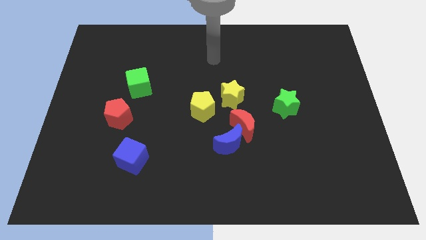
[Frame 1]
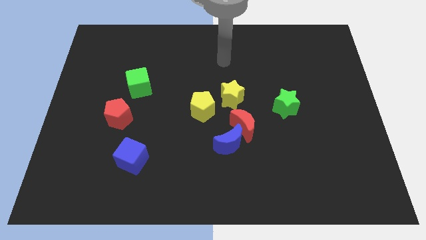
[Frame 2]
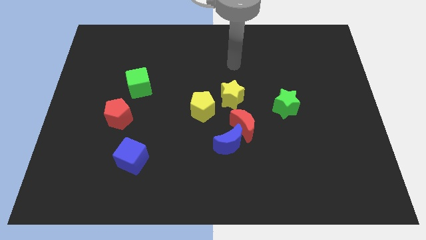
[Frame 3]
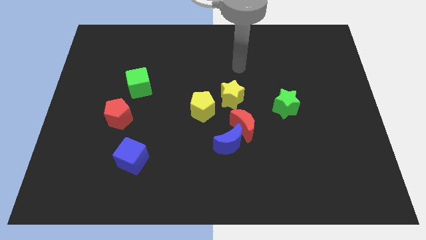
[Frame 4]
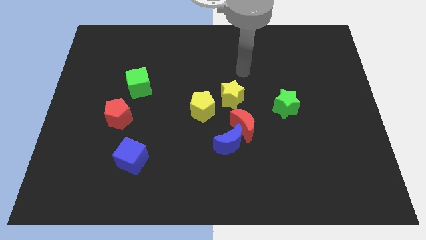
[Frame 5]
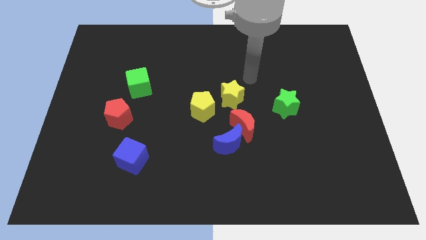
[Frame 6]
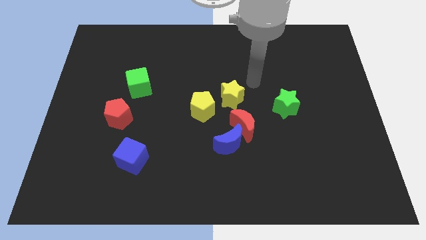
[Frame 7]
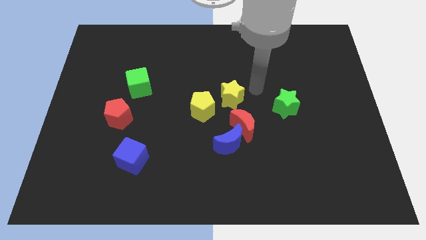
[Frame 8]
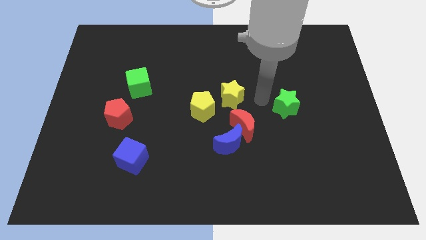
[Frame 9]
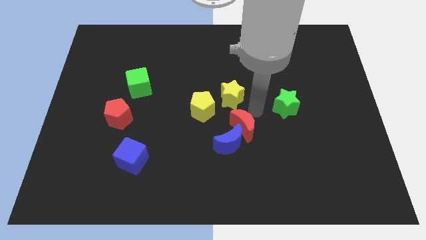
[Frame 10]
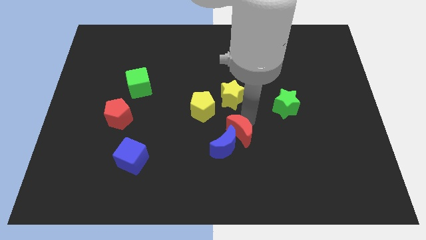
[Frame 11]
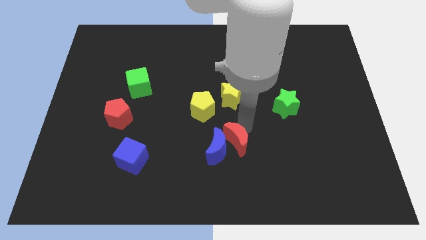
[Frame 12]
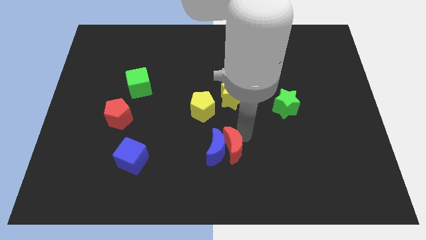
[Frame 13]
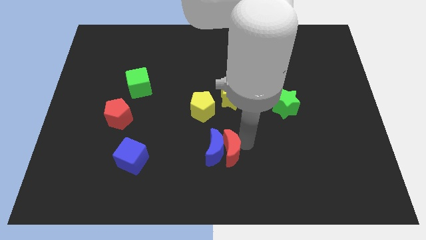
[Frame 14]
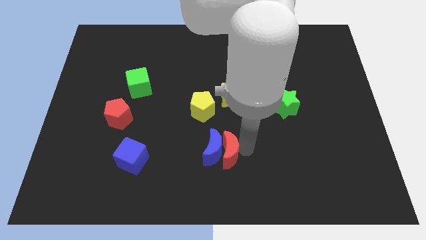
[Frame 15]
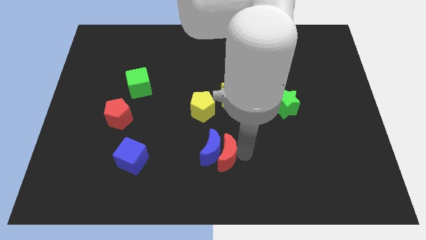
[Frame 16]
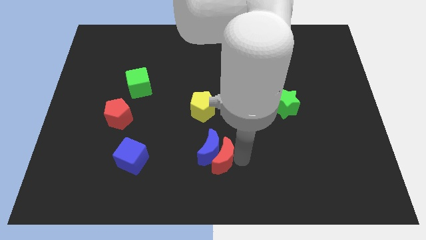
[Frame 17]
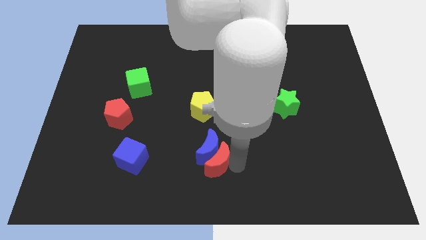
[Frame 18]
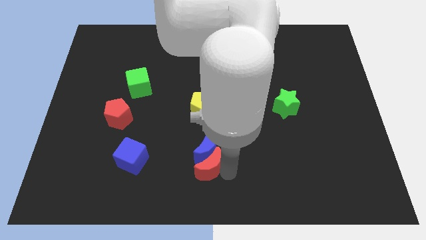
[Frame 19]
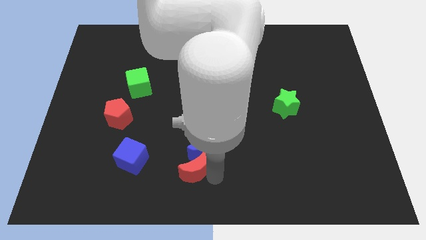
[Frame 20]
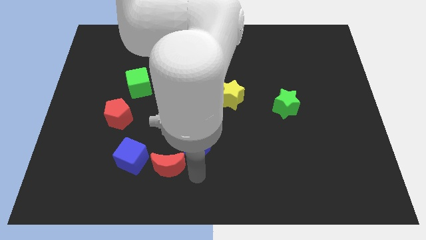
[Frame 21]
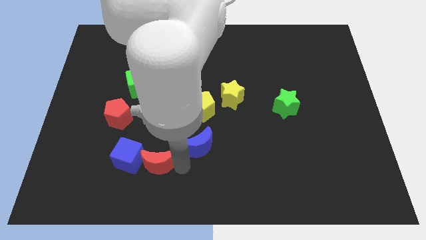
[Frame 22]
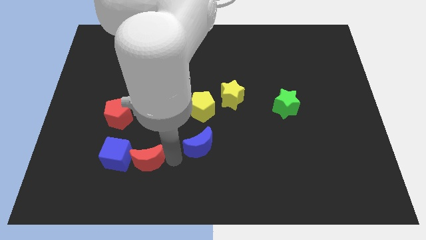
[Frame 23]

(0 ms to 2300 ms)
separate the blue moon from the red moon

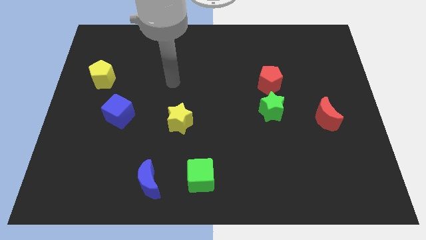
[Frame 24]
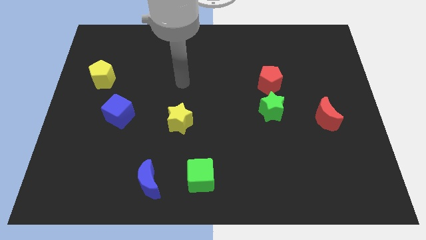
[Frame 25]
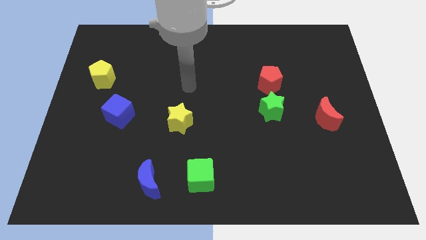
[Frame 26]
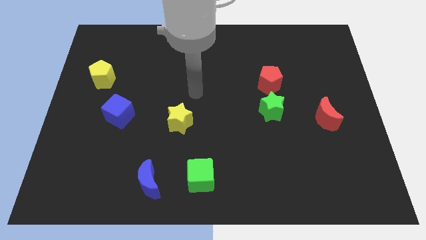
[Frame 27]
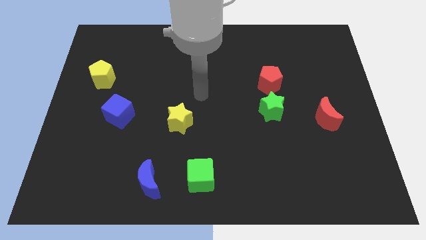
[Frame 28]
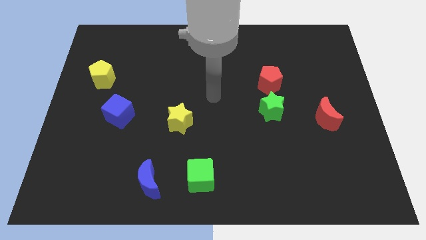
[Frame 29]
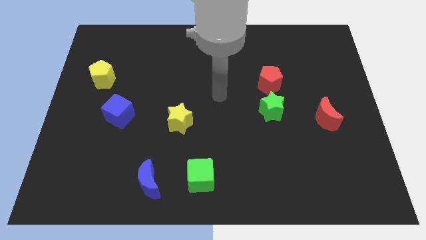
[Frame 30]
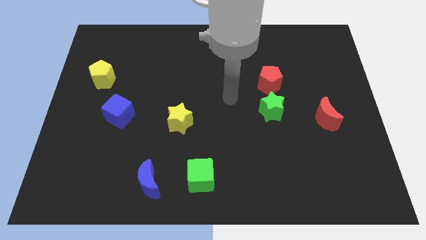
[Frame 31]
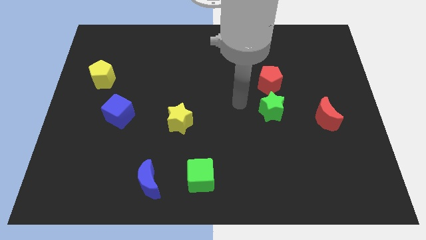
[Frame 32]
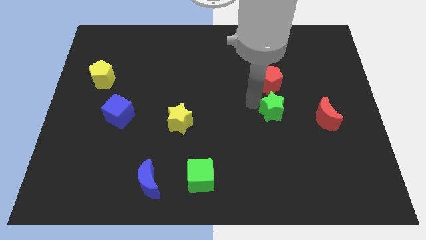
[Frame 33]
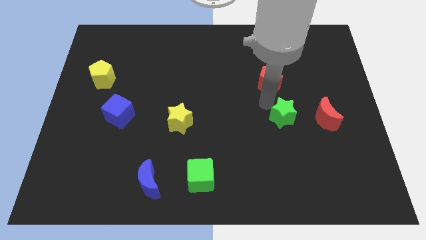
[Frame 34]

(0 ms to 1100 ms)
separate the red pentagon from the green star

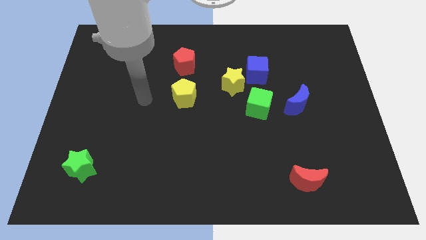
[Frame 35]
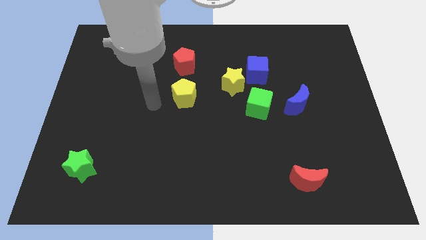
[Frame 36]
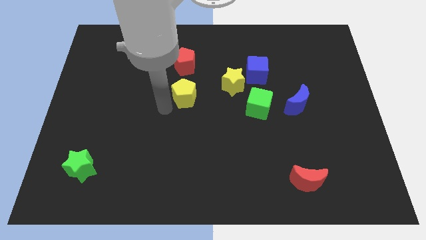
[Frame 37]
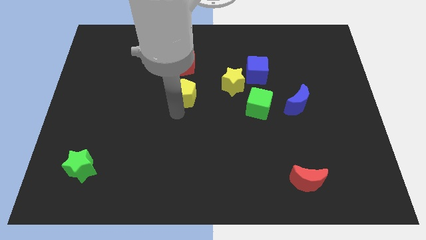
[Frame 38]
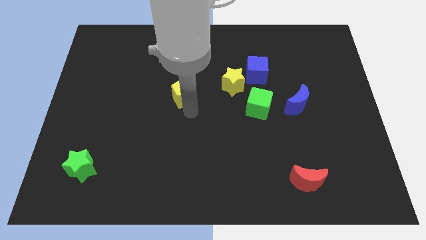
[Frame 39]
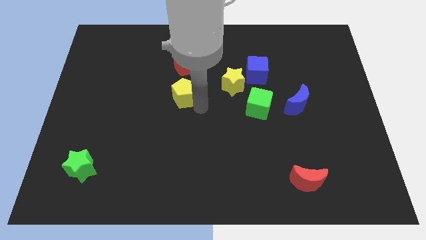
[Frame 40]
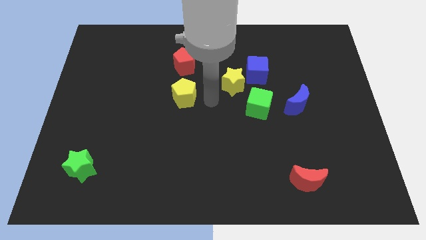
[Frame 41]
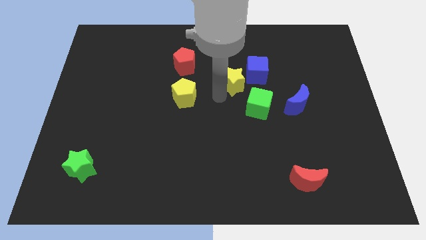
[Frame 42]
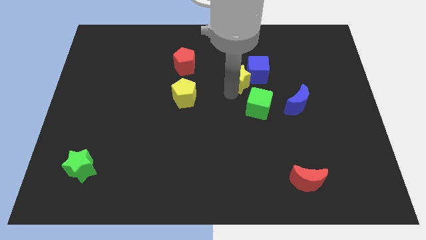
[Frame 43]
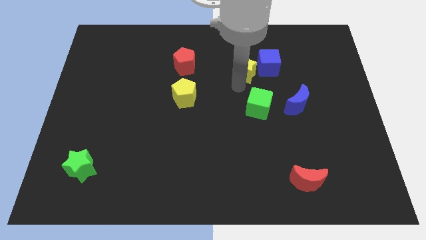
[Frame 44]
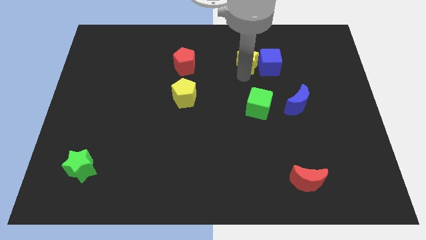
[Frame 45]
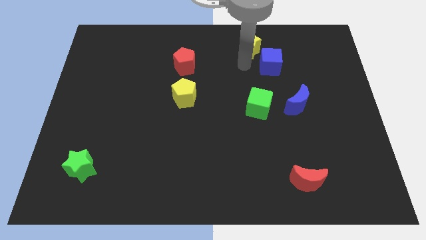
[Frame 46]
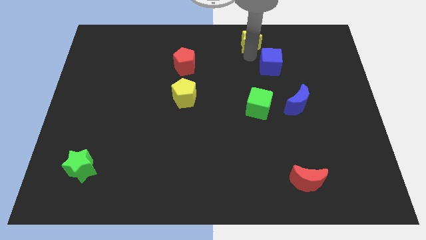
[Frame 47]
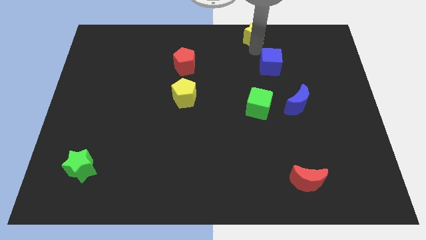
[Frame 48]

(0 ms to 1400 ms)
pull the blue cube apart from the yellow star

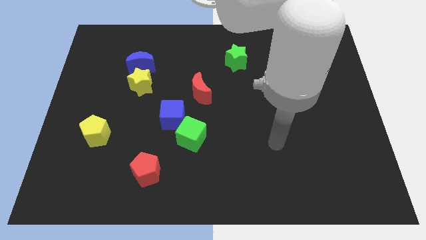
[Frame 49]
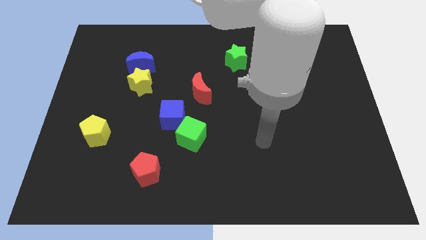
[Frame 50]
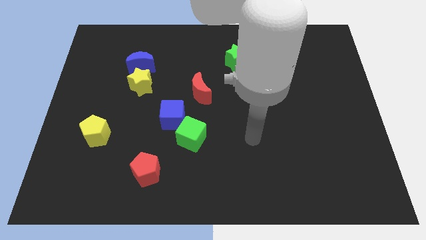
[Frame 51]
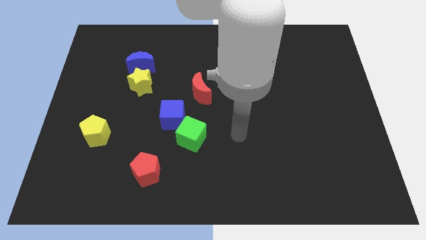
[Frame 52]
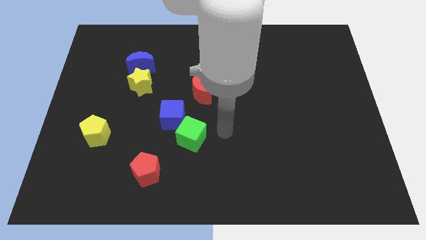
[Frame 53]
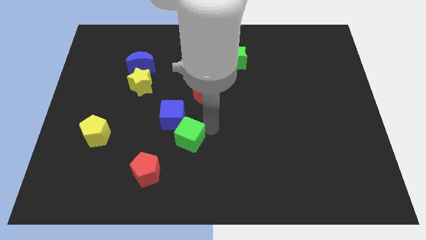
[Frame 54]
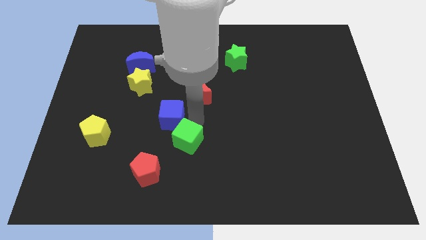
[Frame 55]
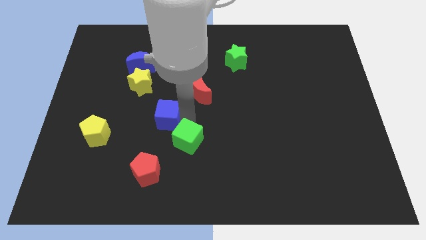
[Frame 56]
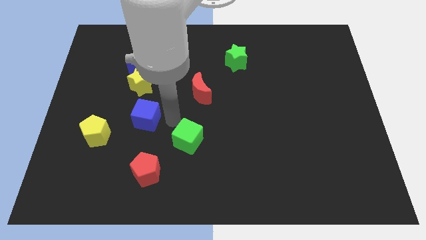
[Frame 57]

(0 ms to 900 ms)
move the green cube away from the blue cube

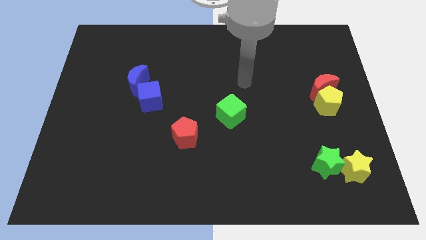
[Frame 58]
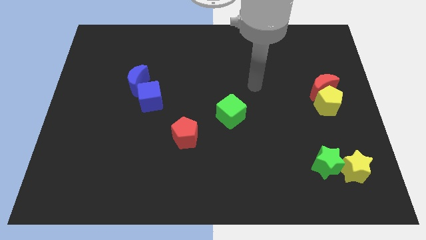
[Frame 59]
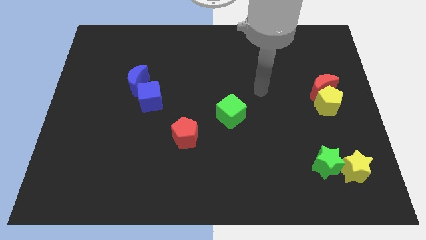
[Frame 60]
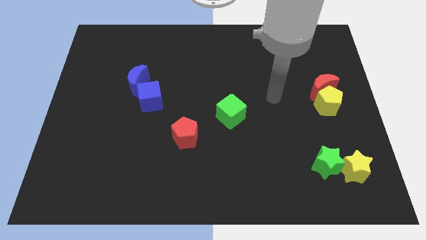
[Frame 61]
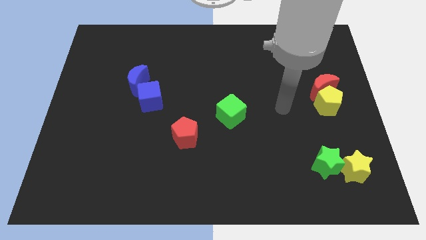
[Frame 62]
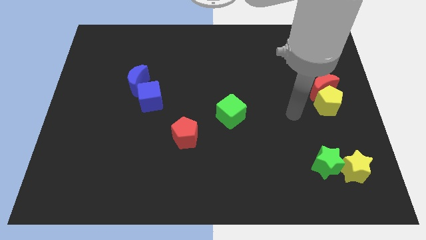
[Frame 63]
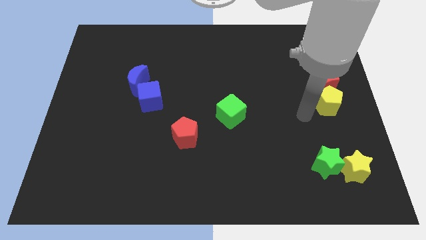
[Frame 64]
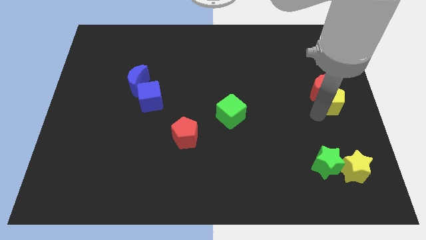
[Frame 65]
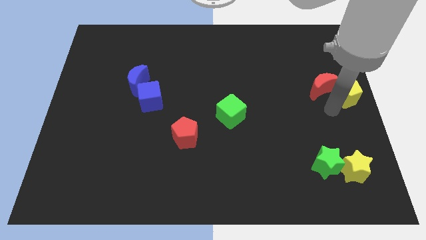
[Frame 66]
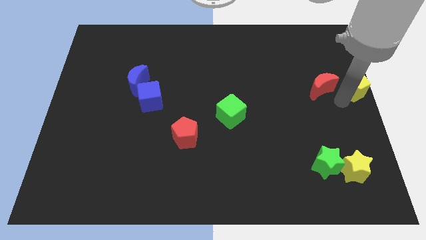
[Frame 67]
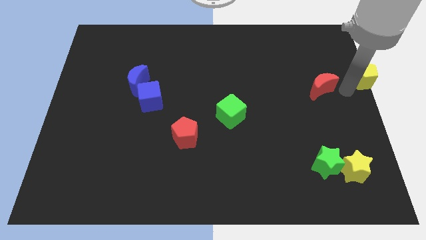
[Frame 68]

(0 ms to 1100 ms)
move the red moon away from the yellow pentagon

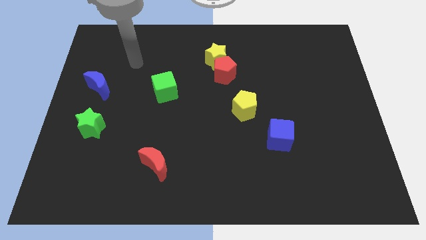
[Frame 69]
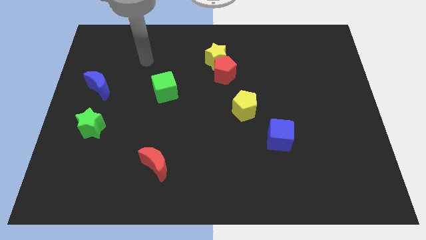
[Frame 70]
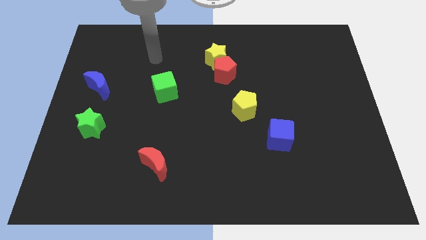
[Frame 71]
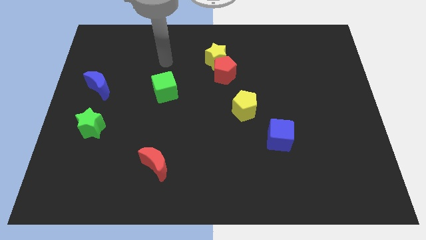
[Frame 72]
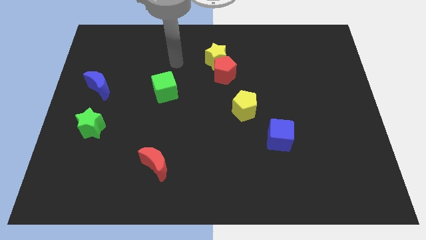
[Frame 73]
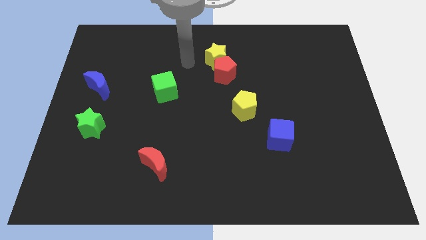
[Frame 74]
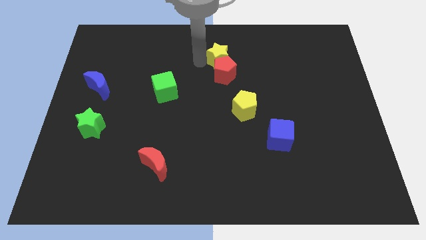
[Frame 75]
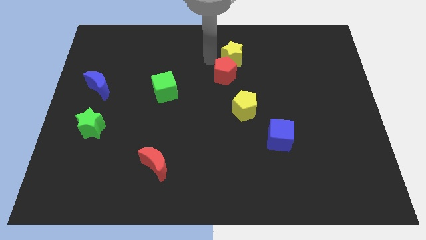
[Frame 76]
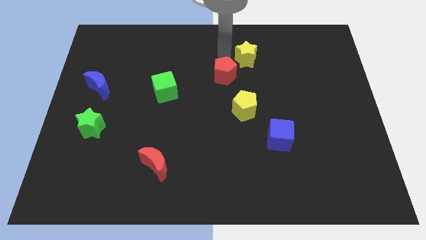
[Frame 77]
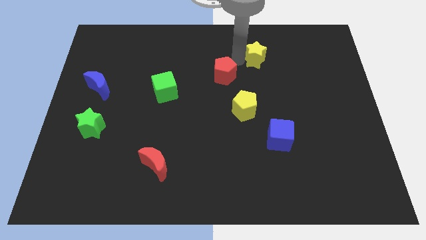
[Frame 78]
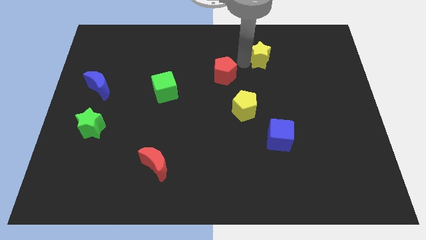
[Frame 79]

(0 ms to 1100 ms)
pull the red pentagon apart from the yellow star

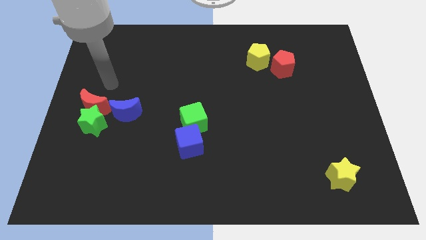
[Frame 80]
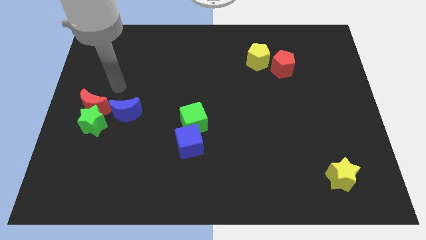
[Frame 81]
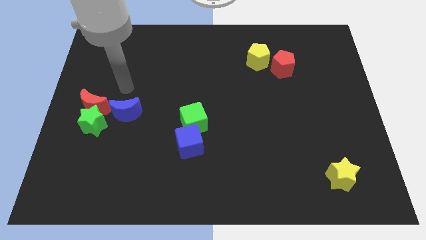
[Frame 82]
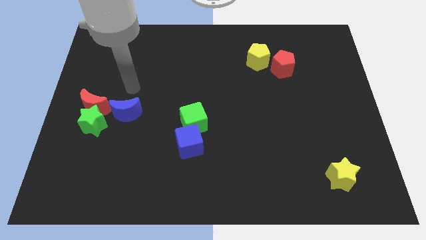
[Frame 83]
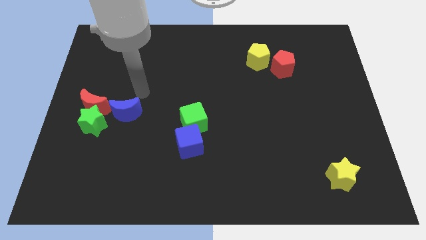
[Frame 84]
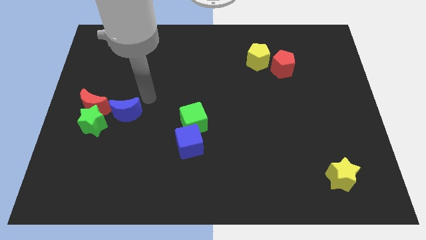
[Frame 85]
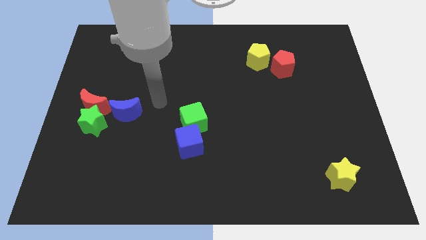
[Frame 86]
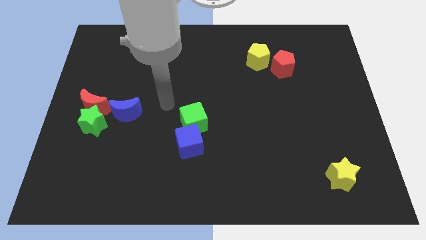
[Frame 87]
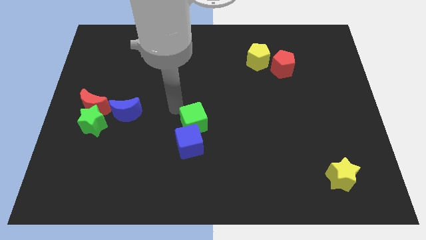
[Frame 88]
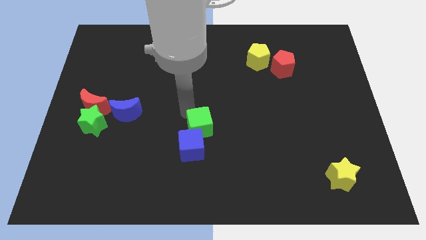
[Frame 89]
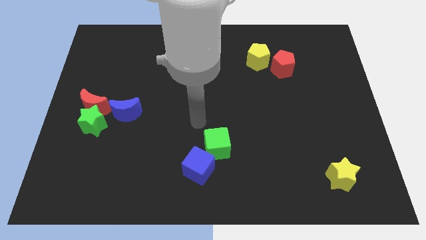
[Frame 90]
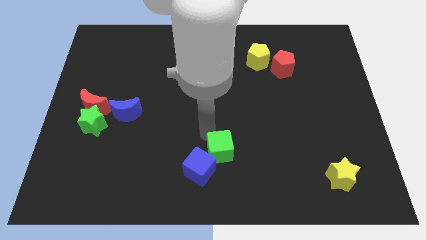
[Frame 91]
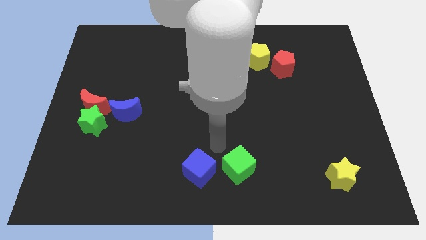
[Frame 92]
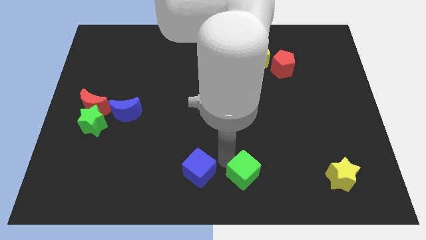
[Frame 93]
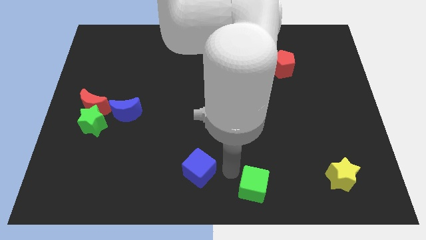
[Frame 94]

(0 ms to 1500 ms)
move the blue cube away from the green cube

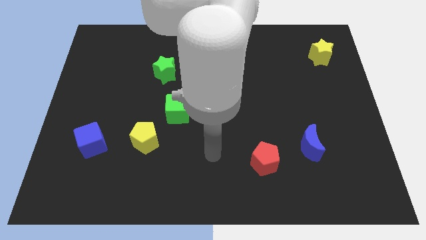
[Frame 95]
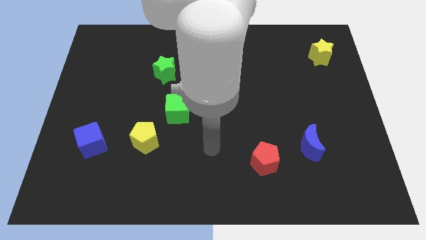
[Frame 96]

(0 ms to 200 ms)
move the red moon away from the green cube
